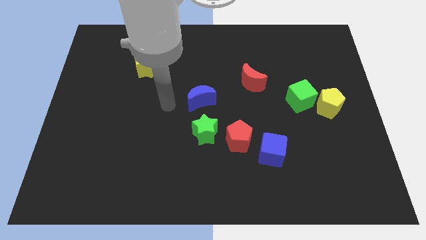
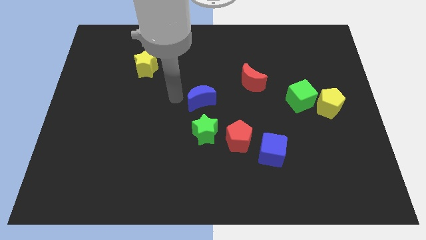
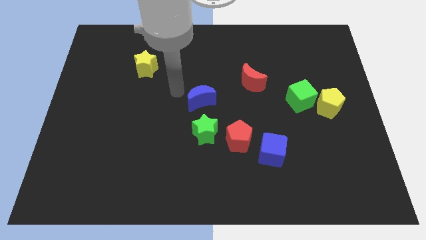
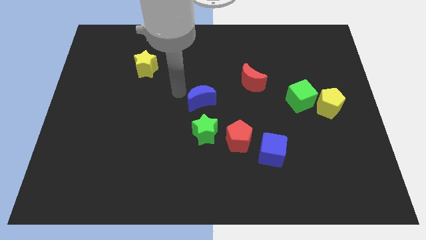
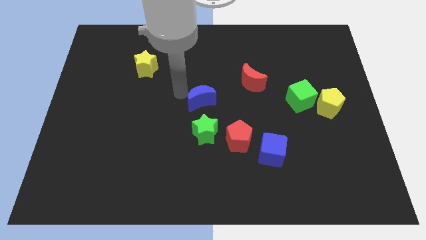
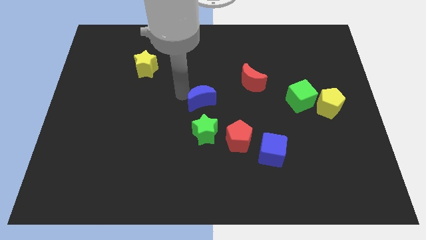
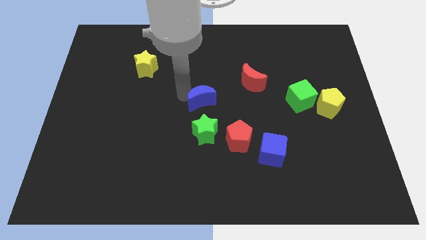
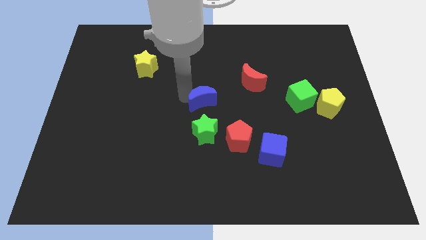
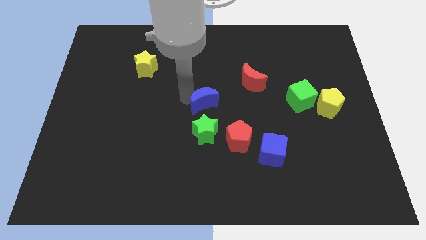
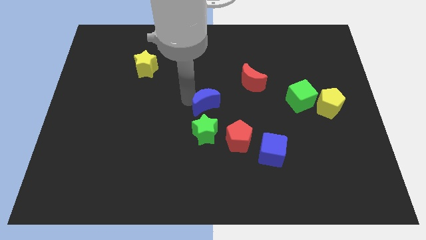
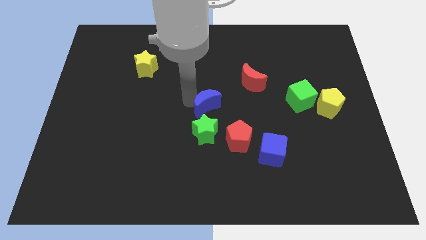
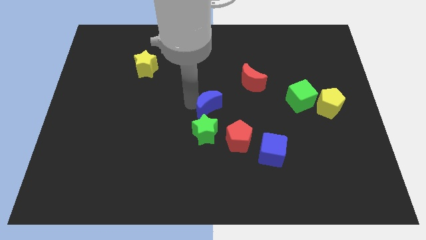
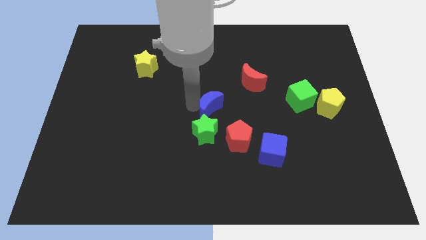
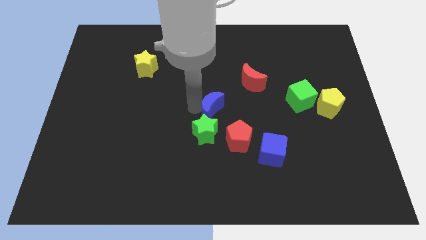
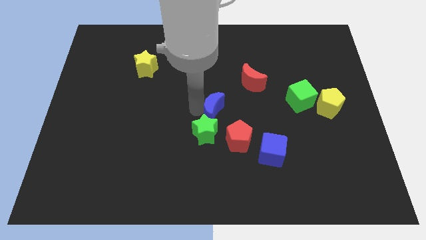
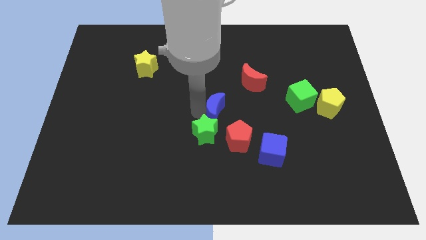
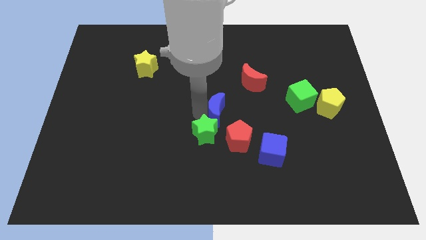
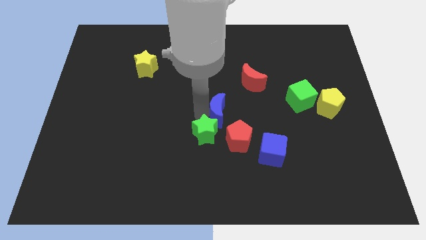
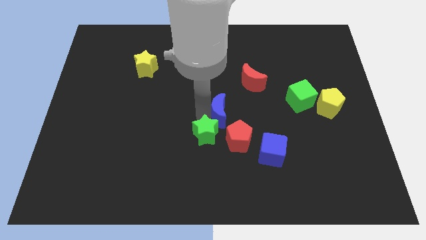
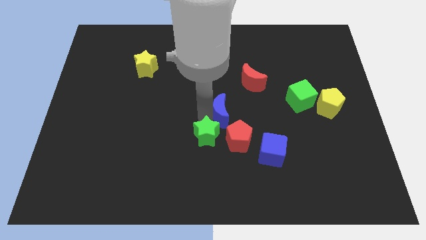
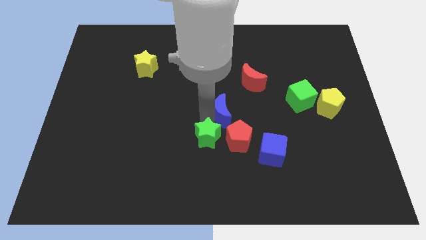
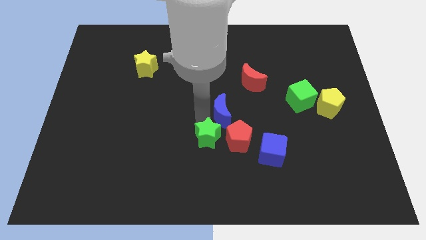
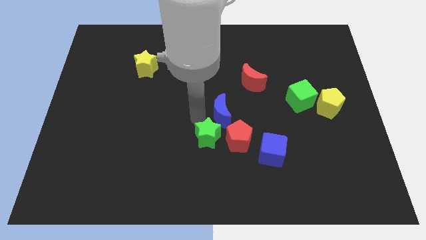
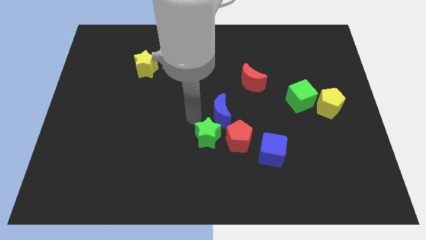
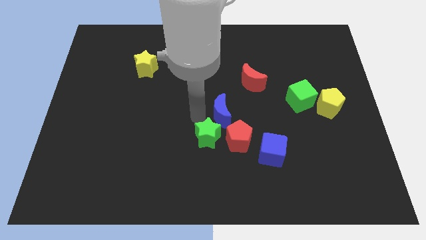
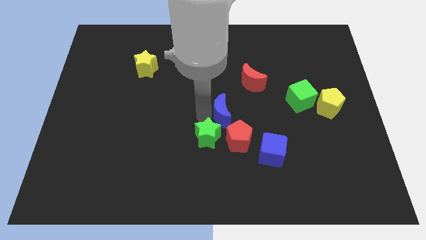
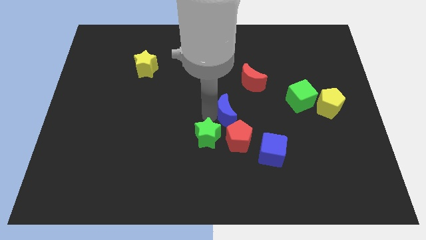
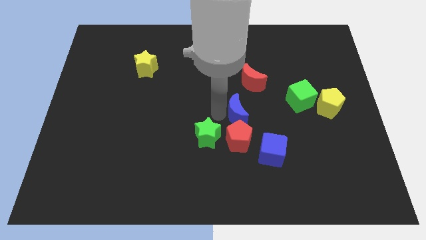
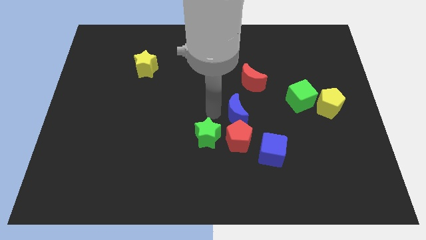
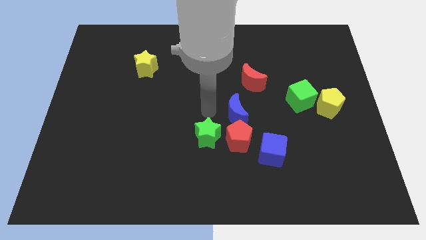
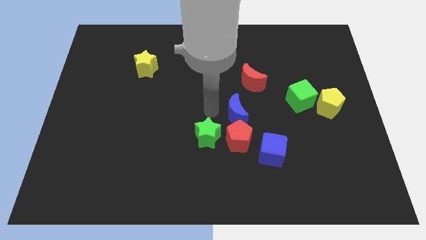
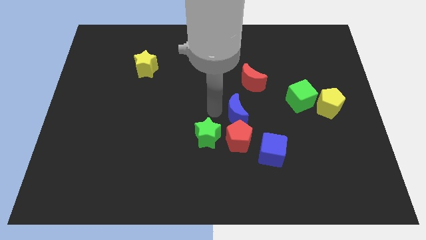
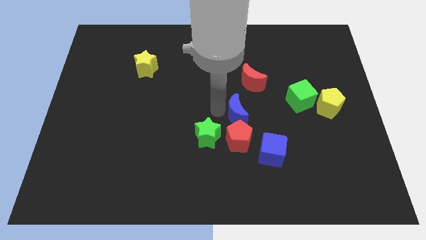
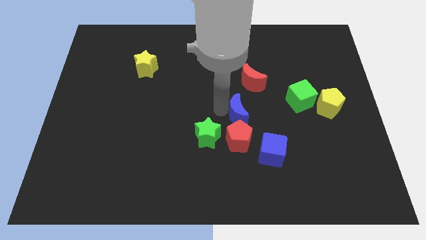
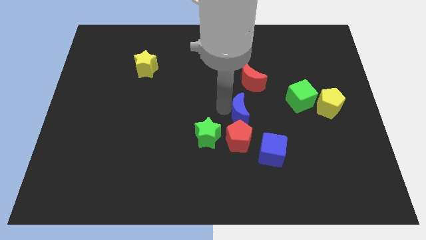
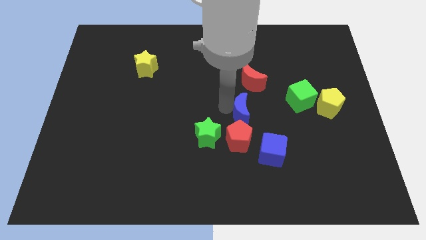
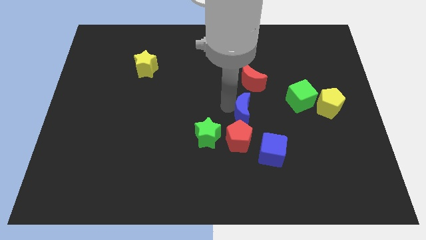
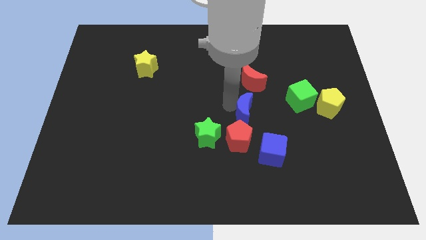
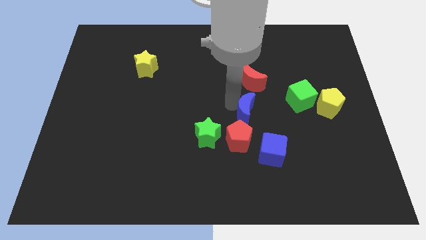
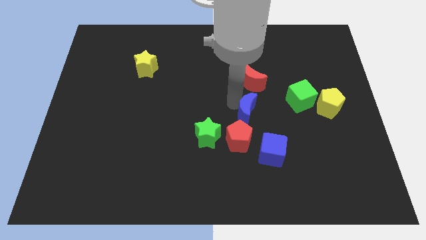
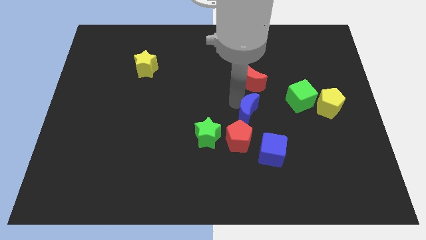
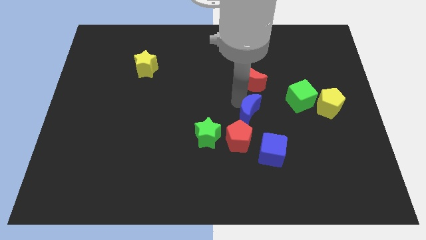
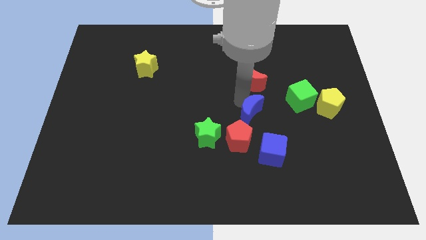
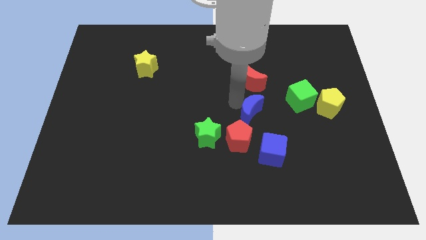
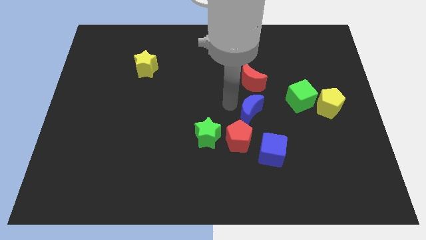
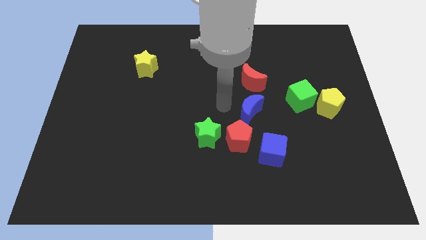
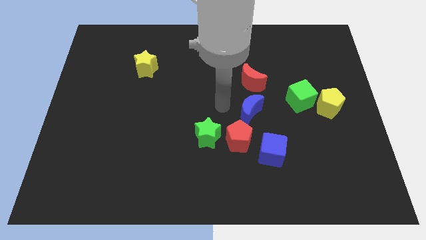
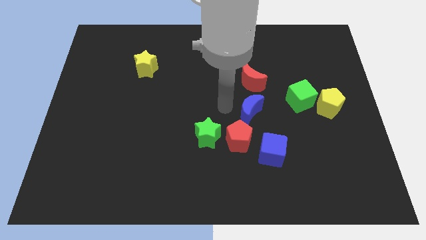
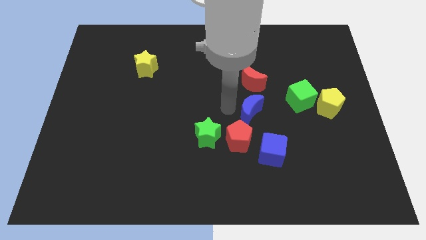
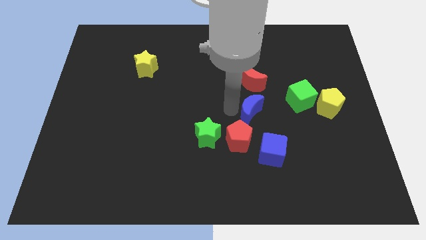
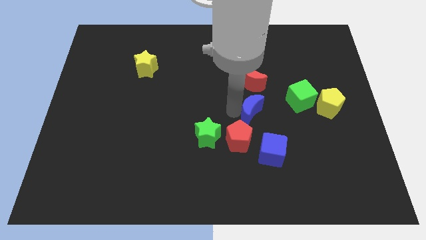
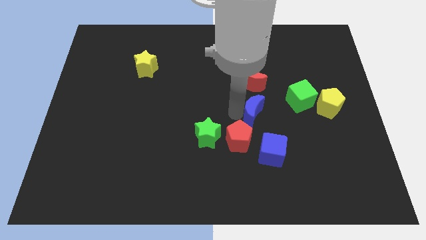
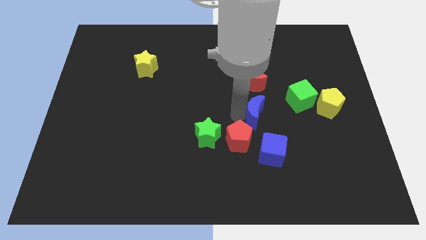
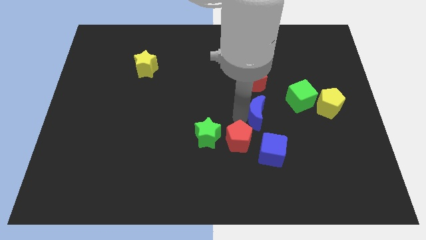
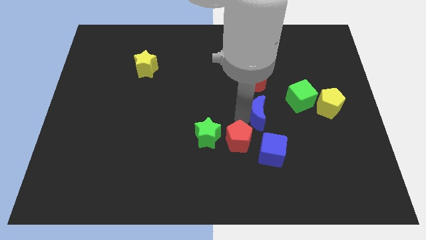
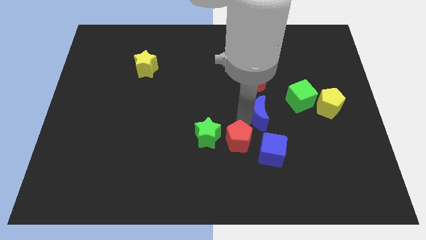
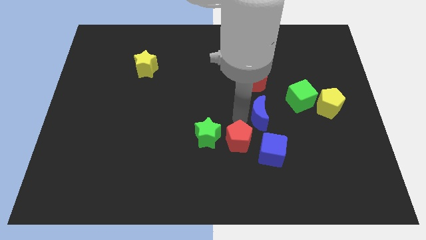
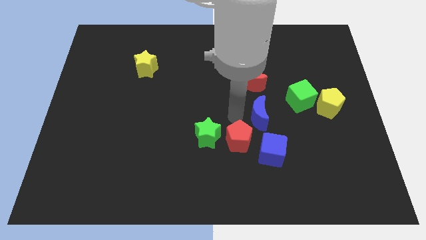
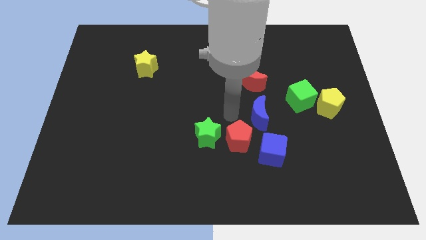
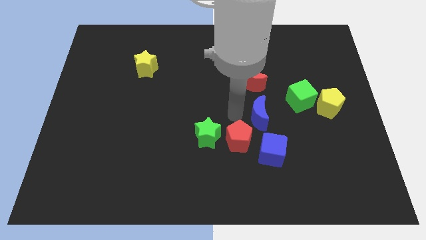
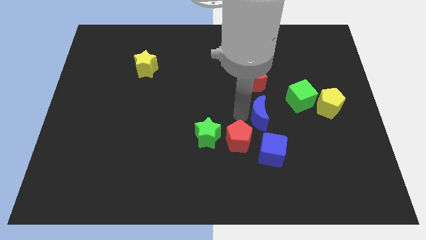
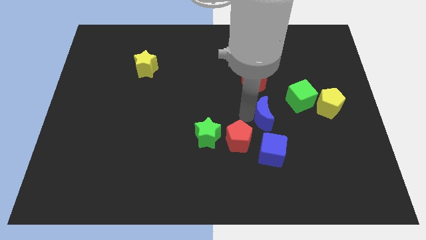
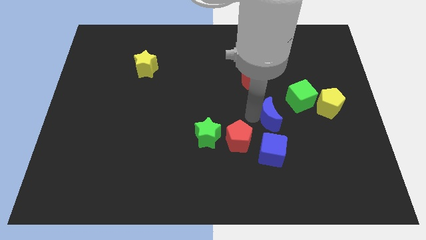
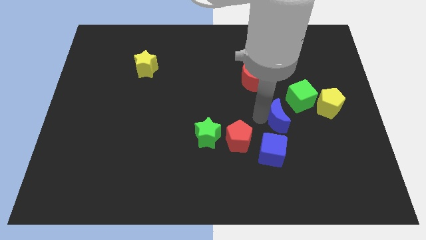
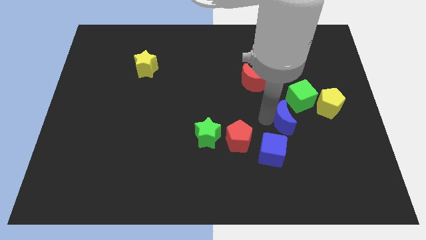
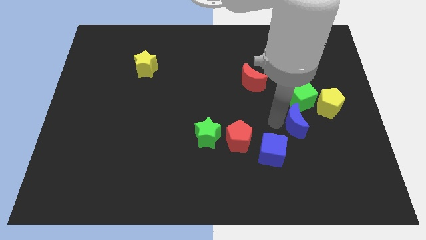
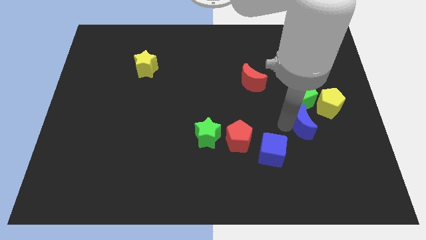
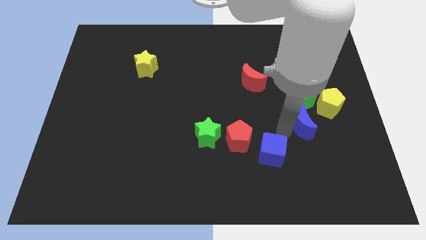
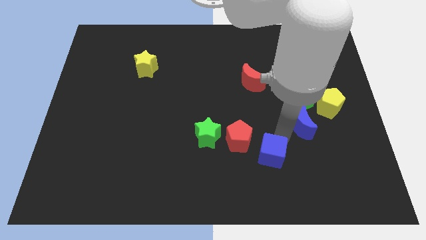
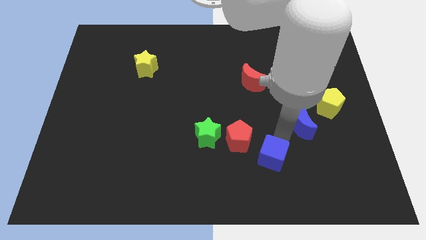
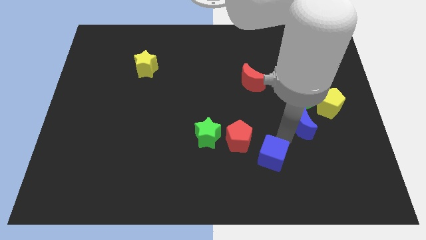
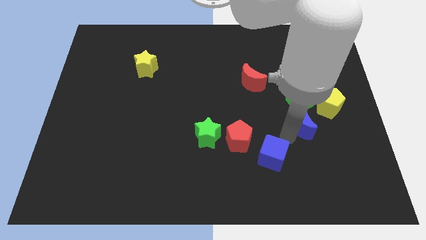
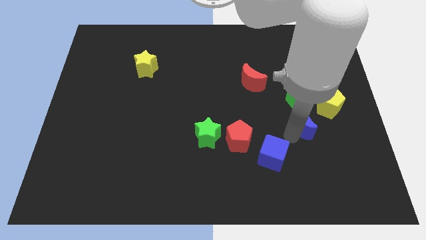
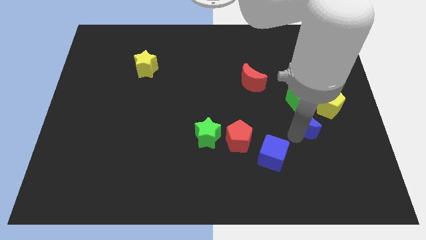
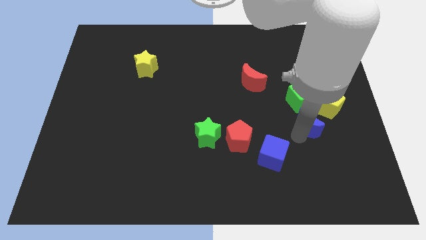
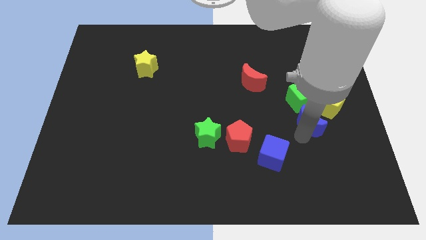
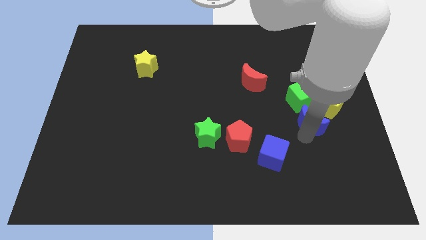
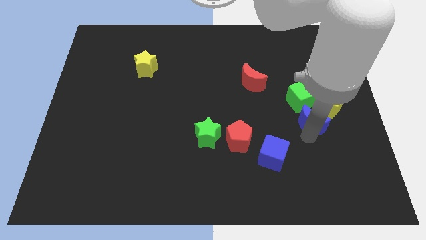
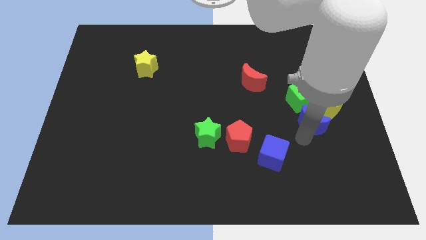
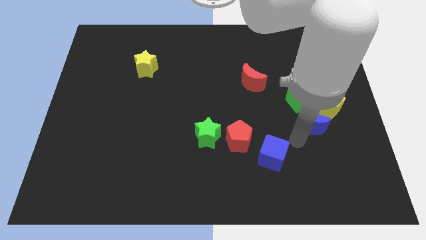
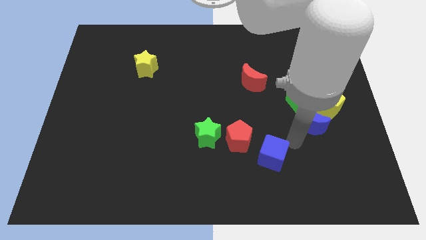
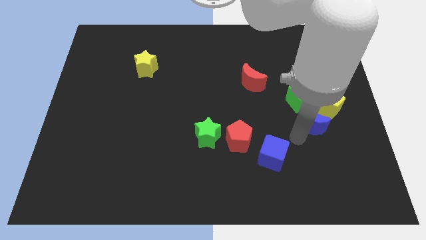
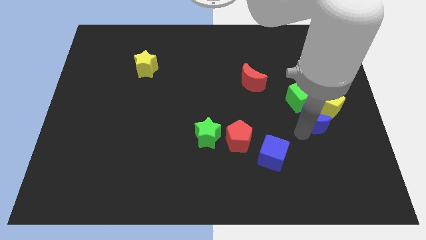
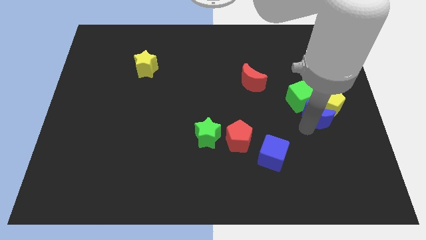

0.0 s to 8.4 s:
move the blue moon next to the yellow pentagon
